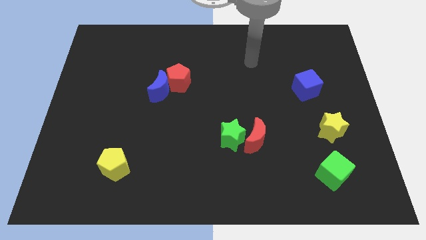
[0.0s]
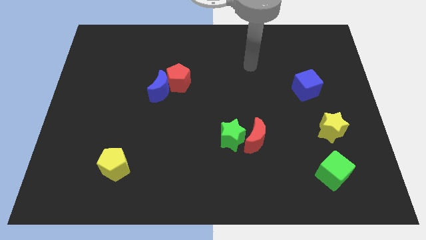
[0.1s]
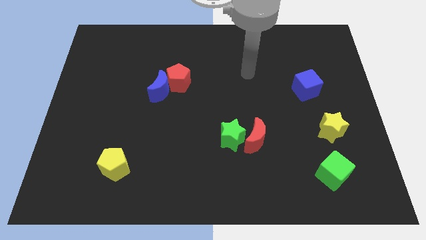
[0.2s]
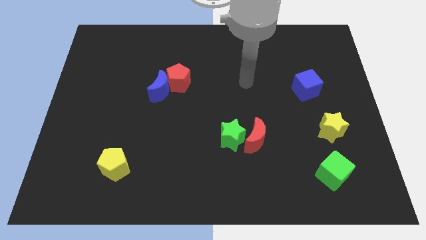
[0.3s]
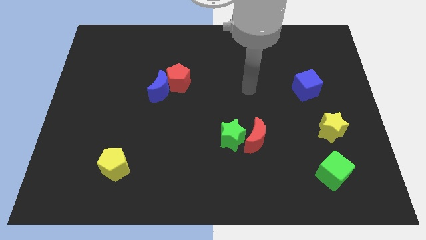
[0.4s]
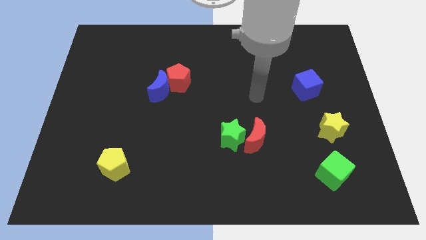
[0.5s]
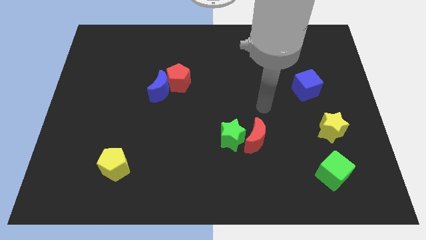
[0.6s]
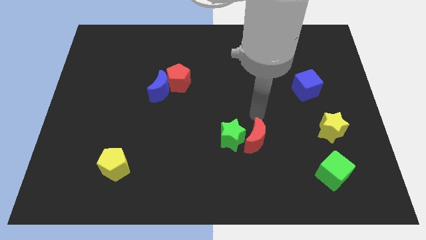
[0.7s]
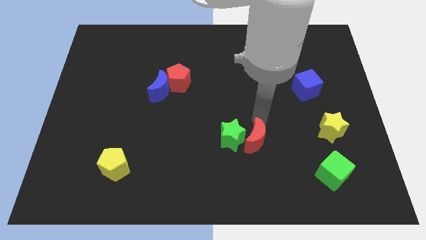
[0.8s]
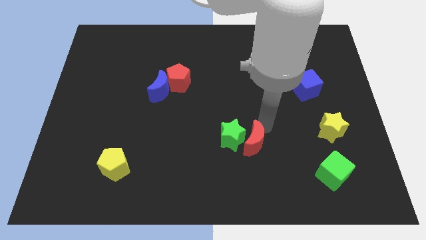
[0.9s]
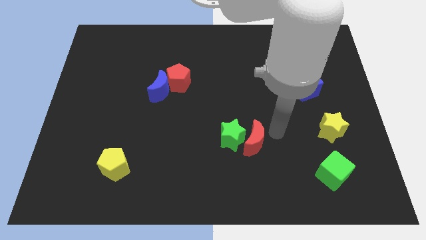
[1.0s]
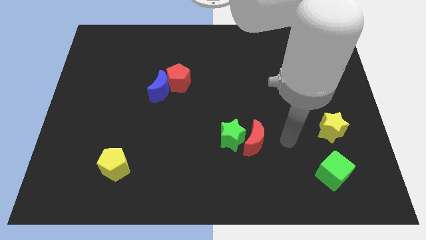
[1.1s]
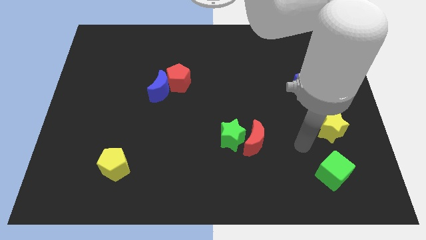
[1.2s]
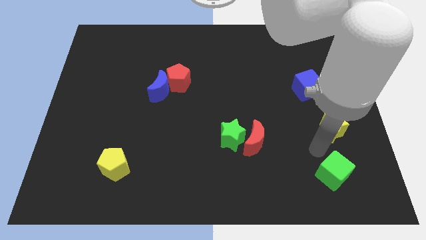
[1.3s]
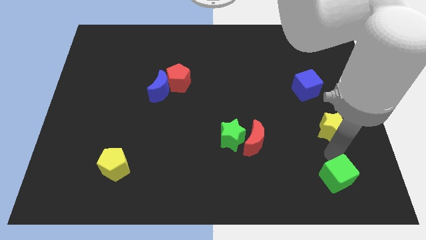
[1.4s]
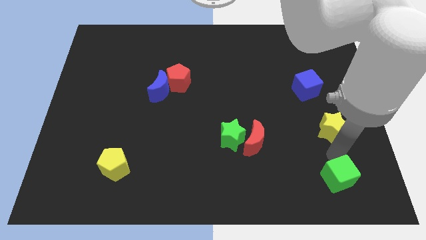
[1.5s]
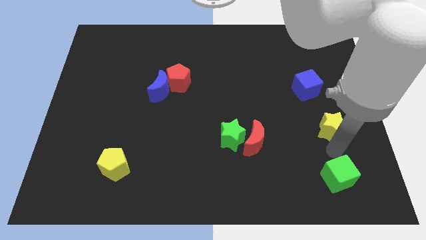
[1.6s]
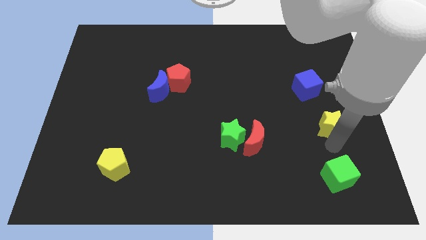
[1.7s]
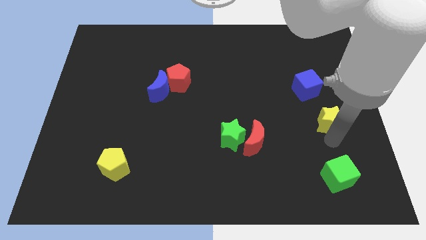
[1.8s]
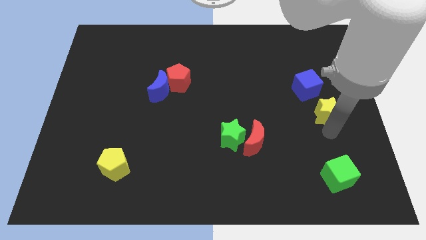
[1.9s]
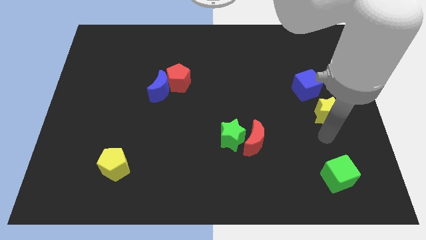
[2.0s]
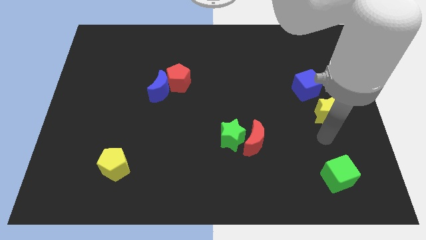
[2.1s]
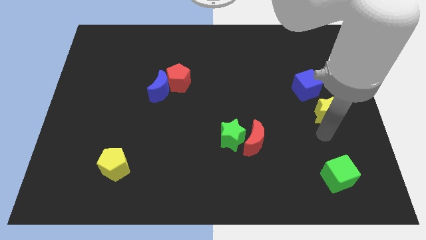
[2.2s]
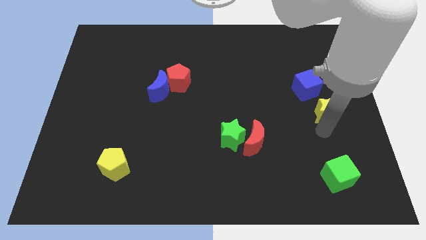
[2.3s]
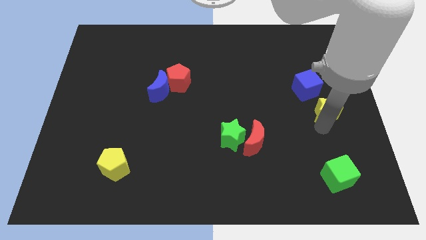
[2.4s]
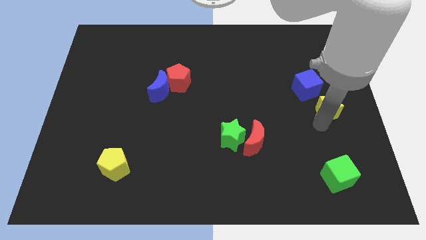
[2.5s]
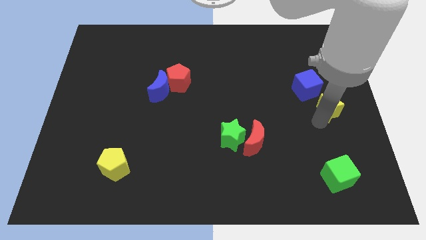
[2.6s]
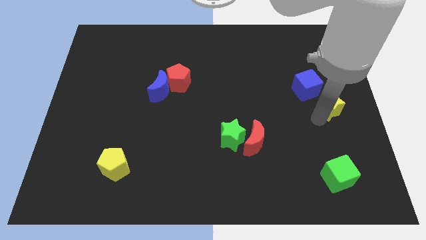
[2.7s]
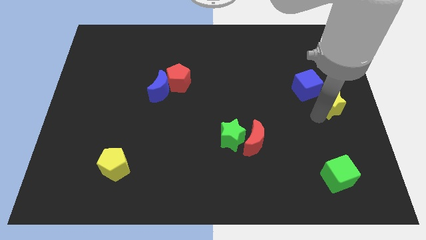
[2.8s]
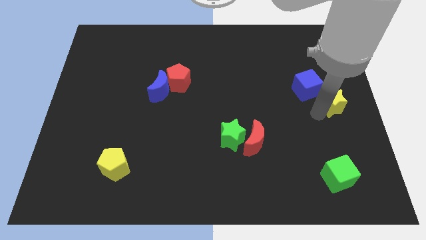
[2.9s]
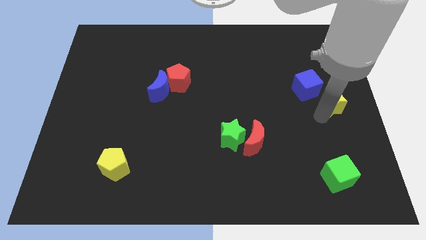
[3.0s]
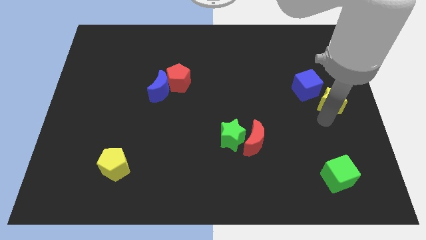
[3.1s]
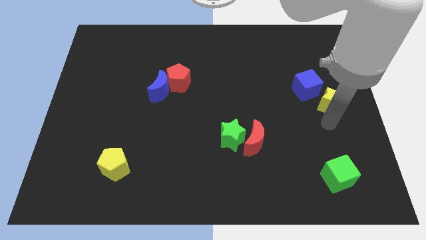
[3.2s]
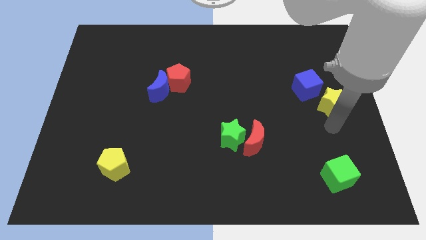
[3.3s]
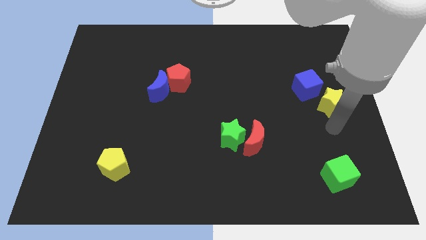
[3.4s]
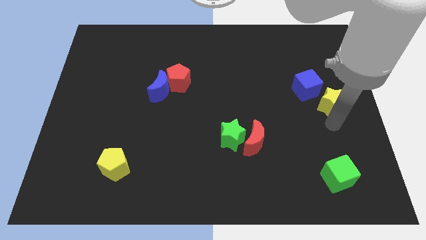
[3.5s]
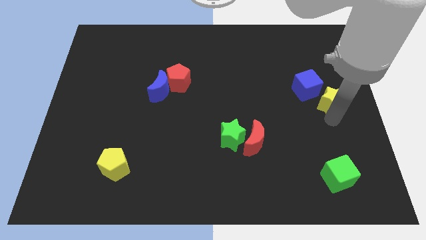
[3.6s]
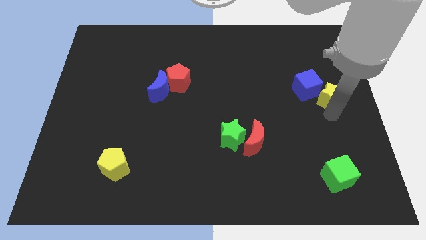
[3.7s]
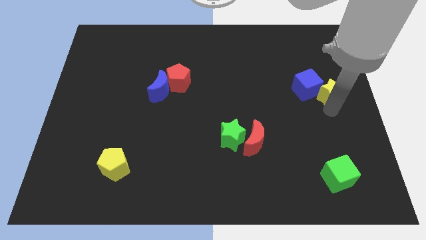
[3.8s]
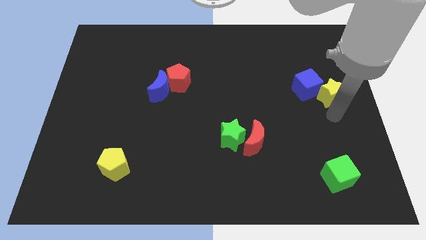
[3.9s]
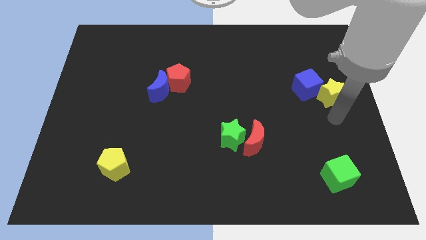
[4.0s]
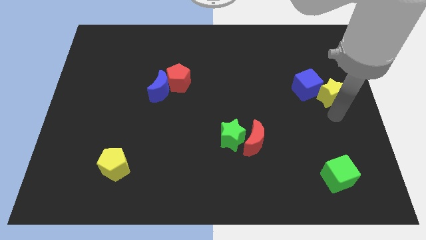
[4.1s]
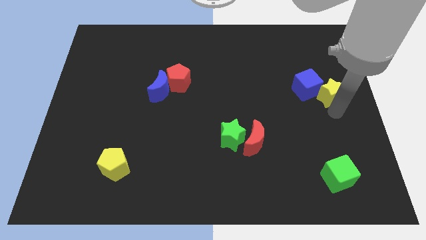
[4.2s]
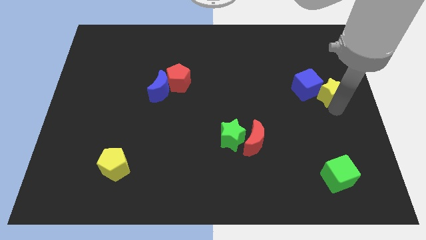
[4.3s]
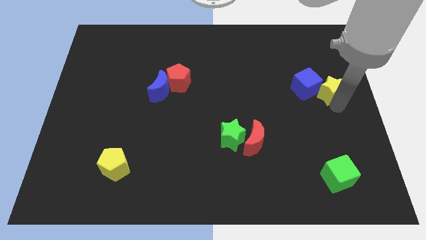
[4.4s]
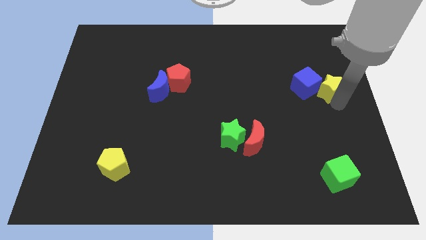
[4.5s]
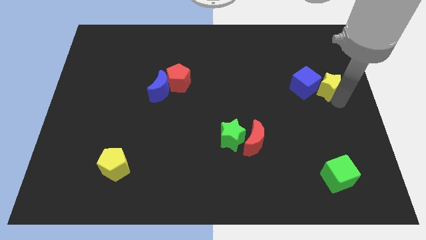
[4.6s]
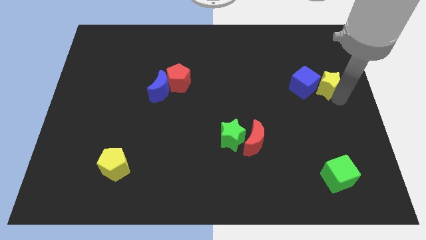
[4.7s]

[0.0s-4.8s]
slide the yellow star to the top right of the blue cube

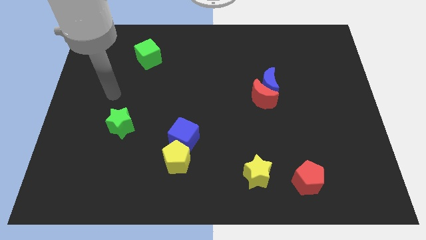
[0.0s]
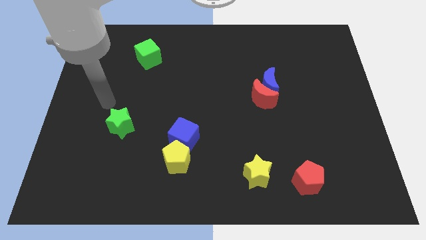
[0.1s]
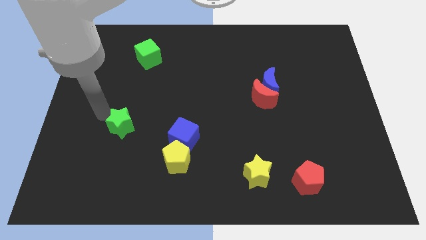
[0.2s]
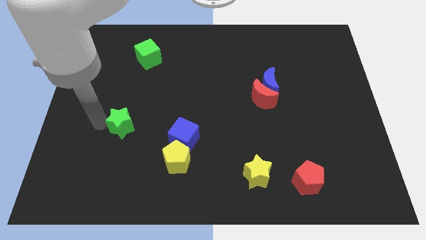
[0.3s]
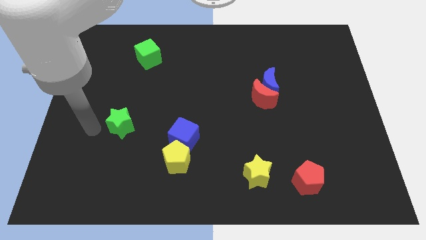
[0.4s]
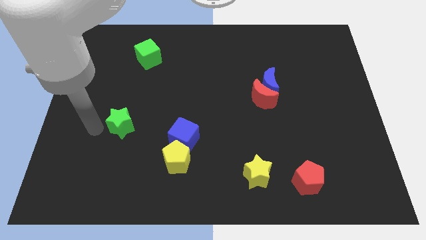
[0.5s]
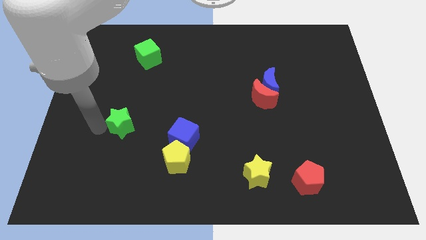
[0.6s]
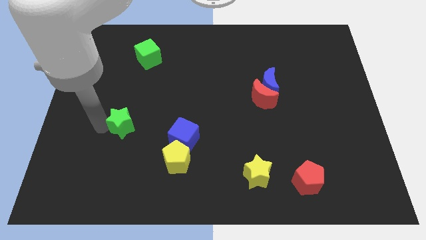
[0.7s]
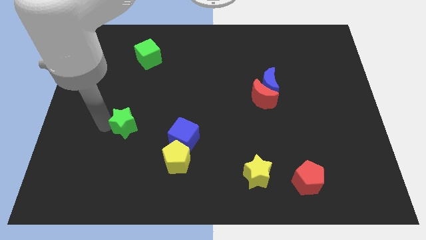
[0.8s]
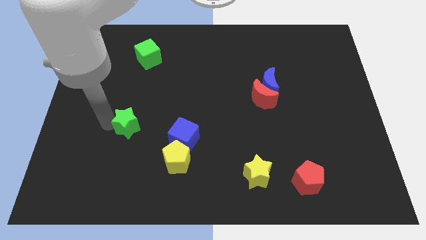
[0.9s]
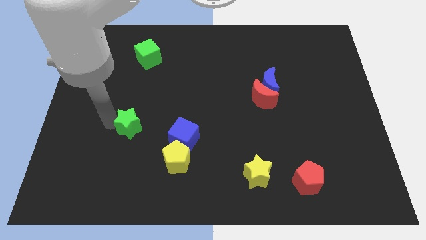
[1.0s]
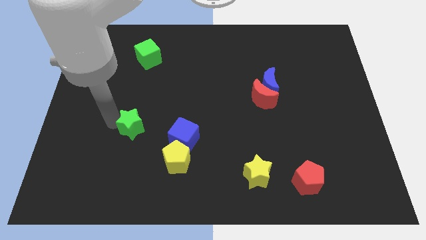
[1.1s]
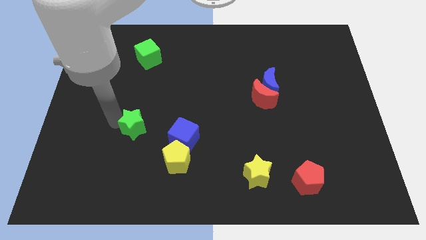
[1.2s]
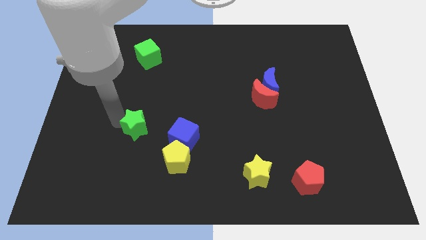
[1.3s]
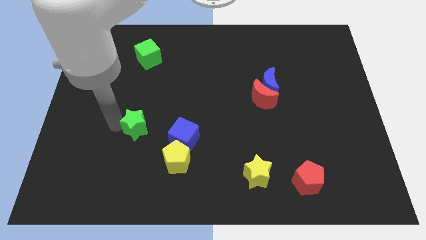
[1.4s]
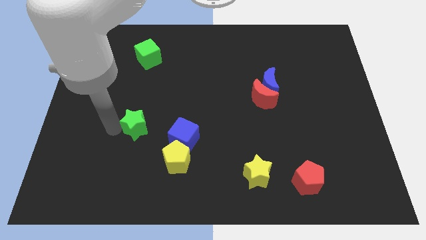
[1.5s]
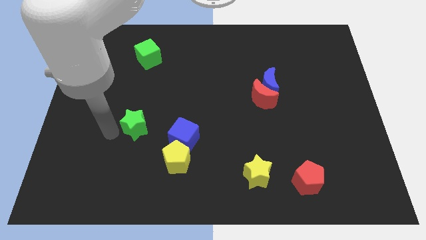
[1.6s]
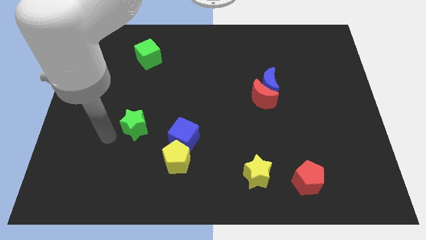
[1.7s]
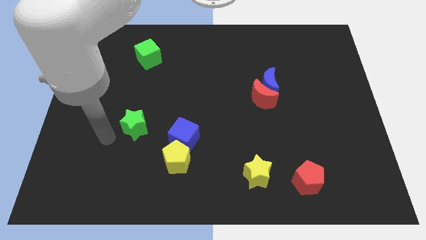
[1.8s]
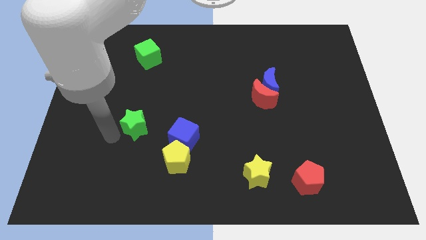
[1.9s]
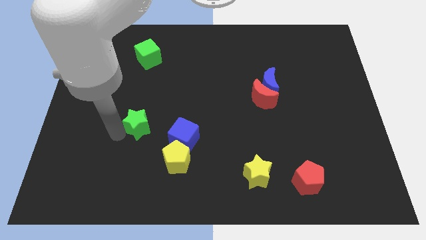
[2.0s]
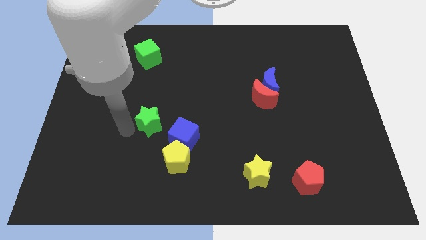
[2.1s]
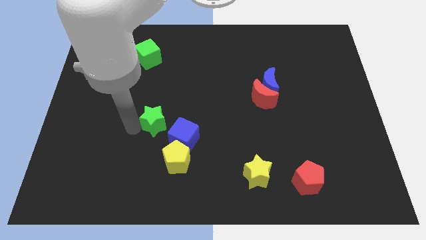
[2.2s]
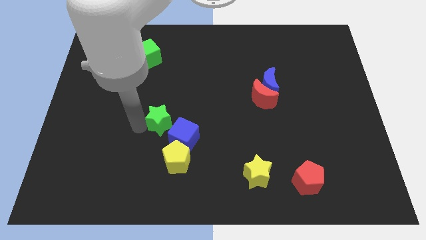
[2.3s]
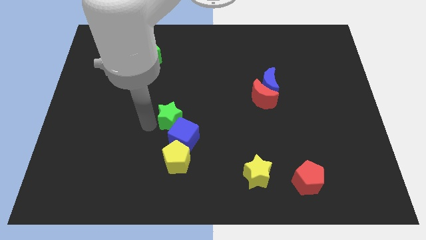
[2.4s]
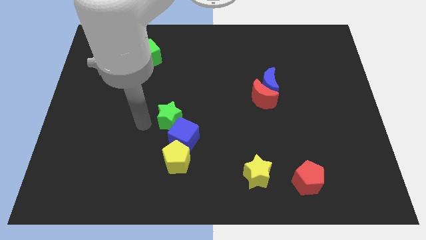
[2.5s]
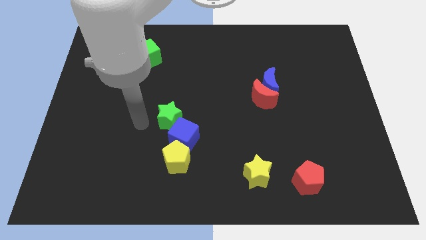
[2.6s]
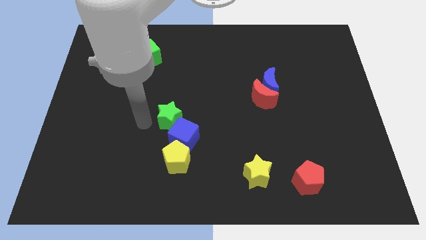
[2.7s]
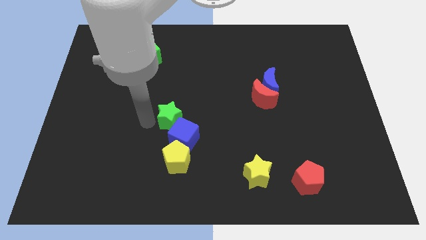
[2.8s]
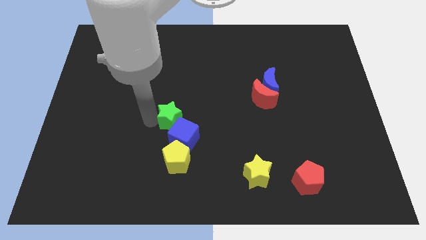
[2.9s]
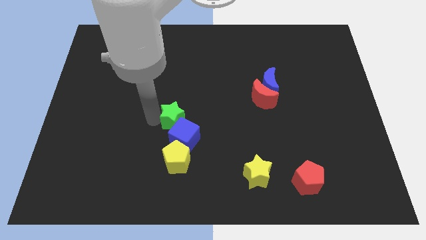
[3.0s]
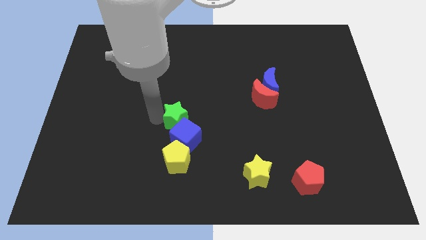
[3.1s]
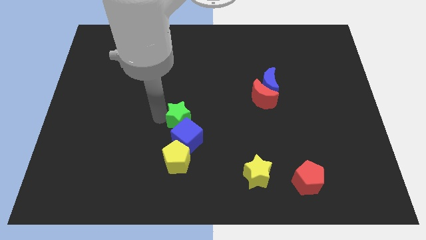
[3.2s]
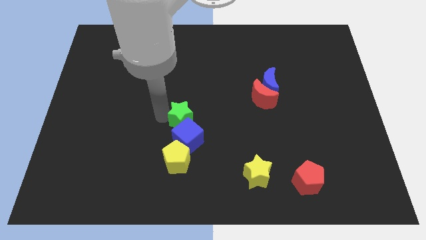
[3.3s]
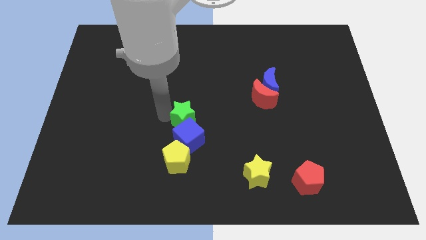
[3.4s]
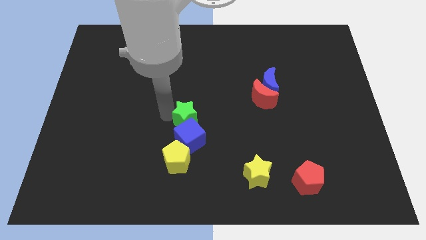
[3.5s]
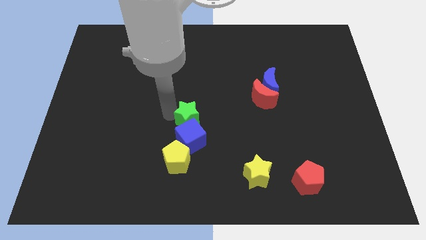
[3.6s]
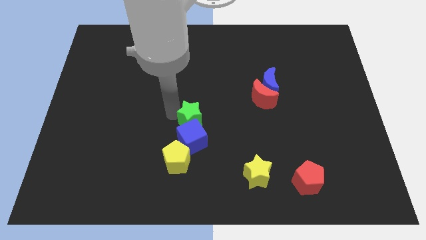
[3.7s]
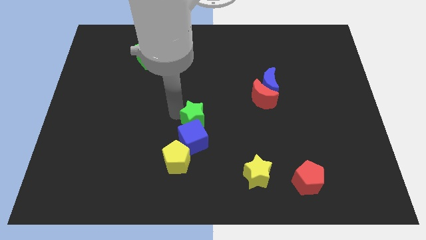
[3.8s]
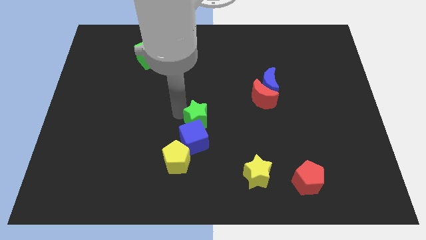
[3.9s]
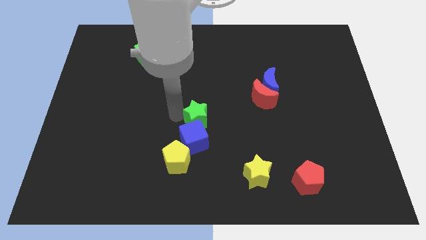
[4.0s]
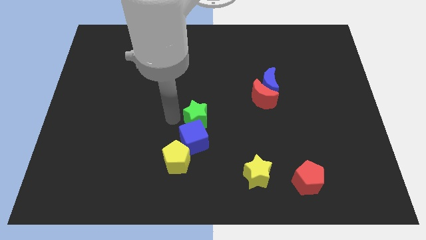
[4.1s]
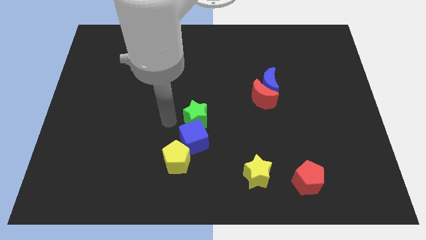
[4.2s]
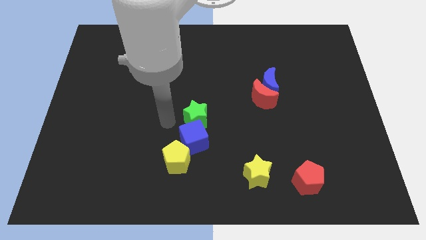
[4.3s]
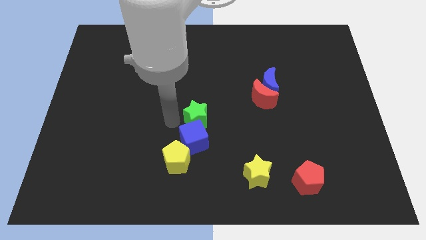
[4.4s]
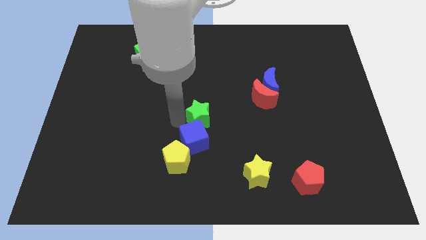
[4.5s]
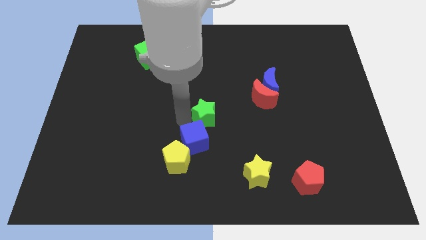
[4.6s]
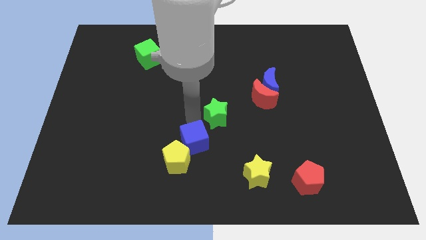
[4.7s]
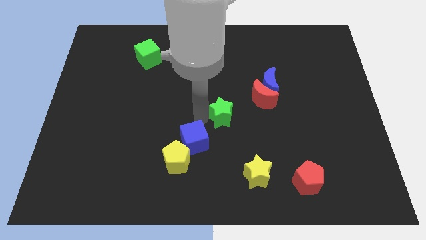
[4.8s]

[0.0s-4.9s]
put the green star diagonally down and to the left of the red moon
